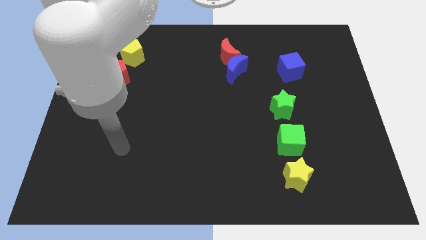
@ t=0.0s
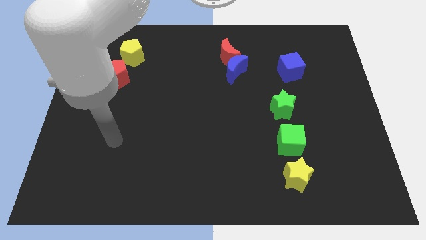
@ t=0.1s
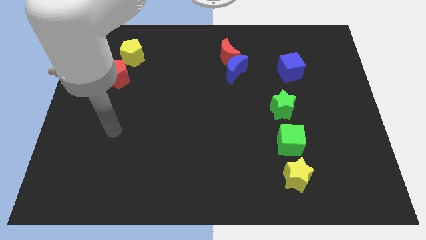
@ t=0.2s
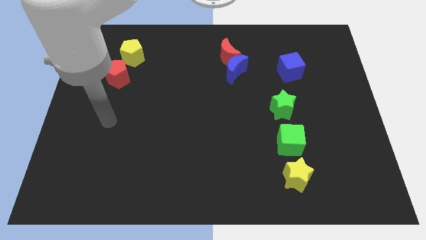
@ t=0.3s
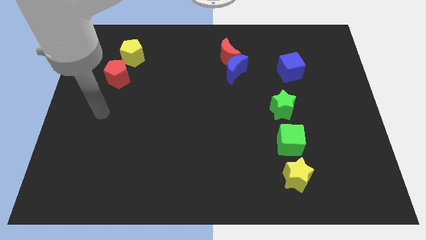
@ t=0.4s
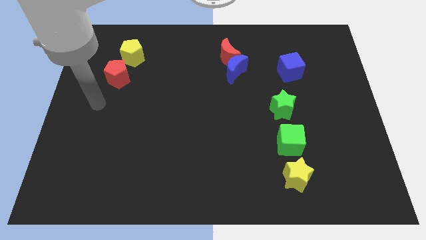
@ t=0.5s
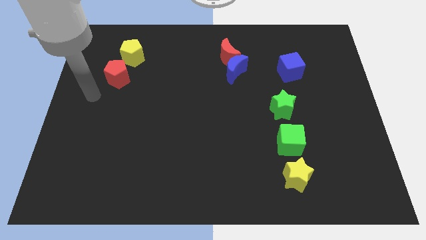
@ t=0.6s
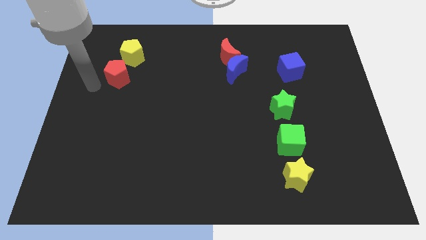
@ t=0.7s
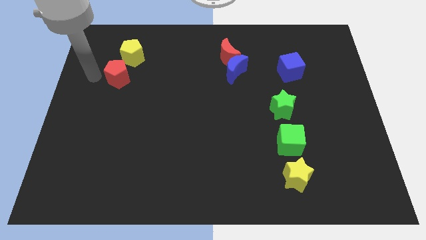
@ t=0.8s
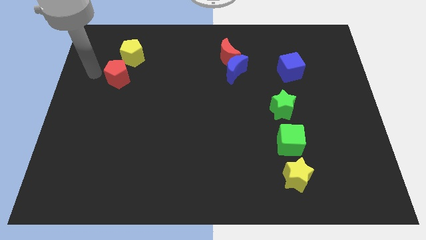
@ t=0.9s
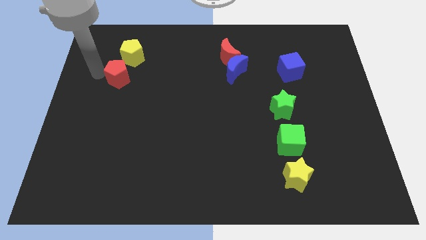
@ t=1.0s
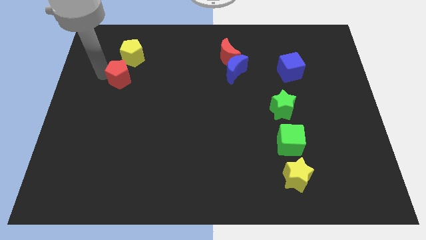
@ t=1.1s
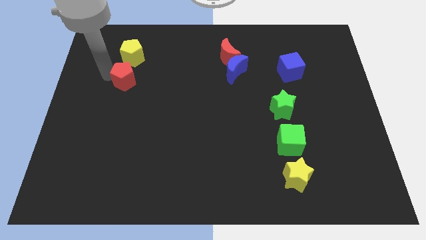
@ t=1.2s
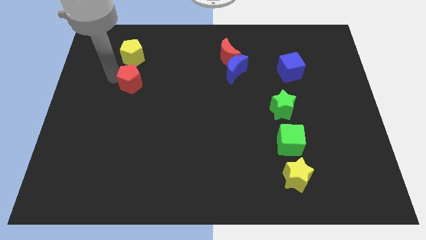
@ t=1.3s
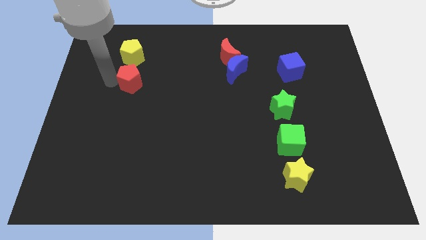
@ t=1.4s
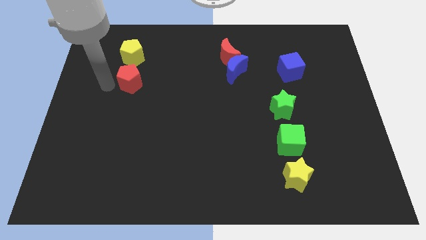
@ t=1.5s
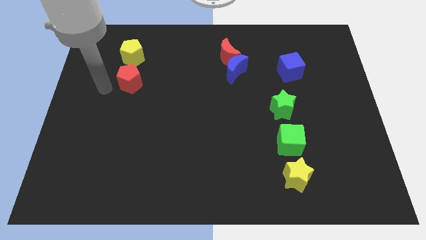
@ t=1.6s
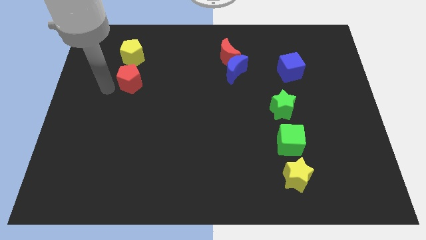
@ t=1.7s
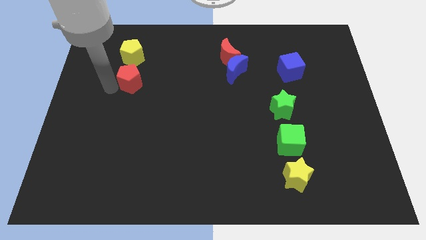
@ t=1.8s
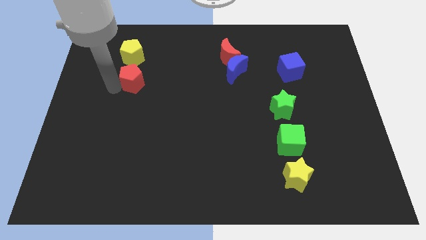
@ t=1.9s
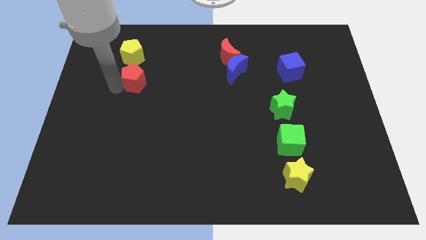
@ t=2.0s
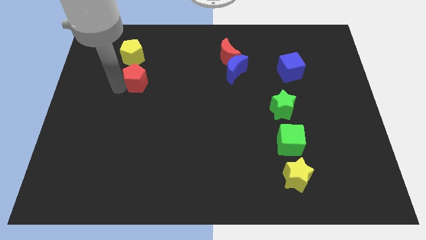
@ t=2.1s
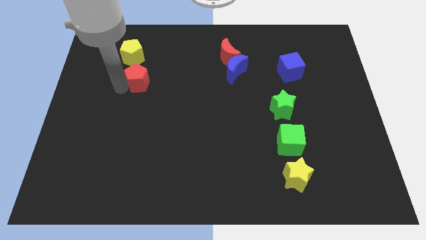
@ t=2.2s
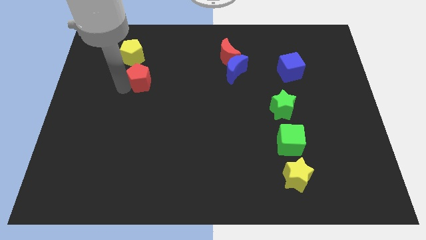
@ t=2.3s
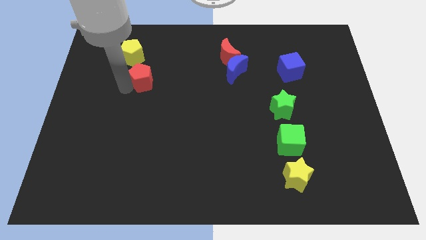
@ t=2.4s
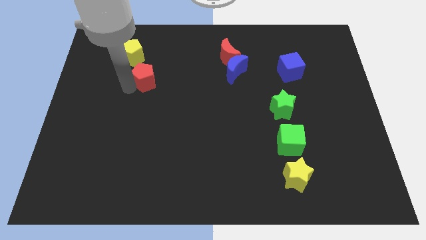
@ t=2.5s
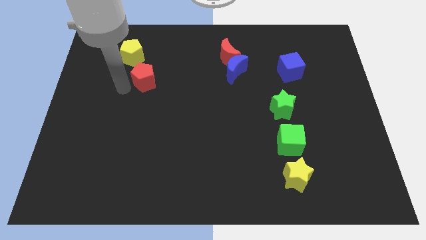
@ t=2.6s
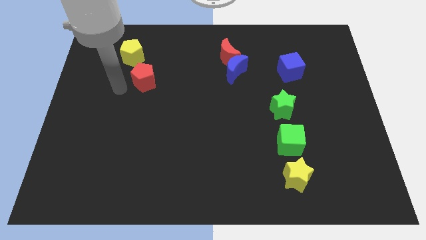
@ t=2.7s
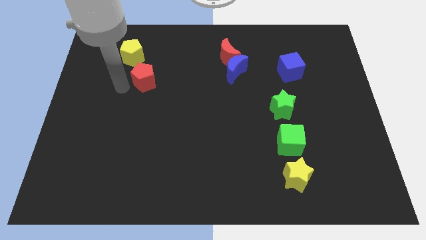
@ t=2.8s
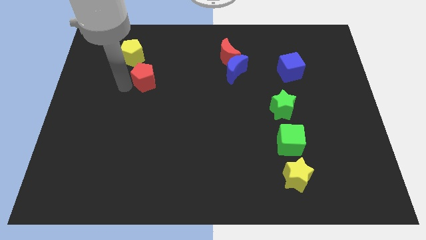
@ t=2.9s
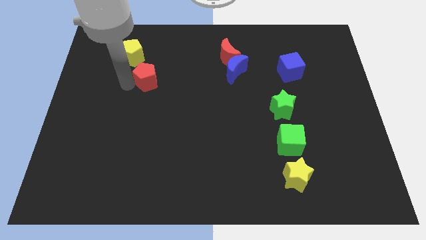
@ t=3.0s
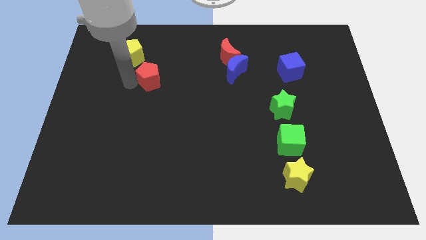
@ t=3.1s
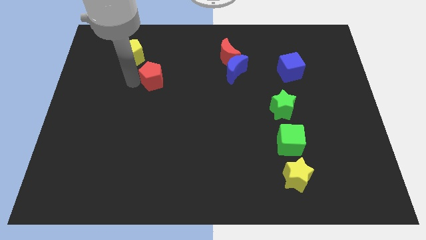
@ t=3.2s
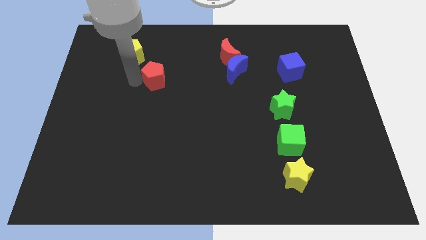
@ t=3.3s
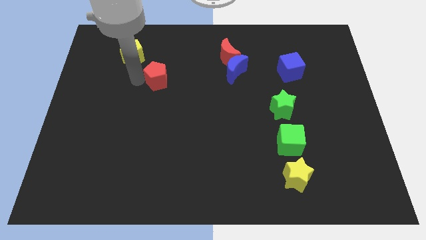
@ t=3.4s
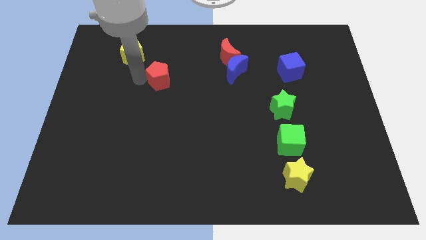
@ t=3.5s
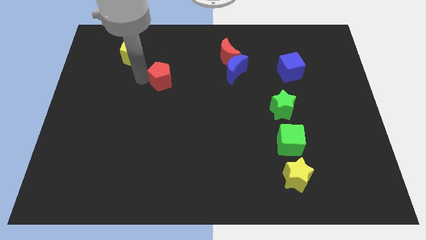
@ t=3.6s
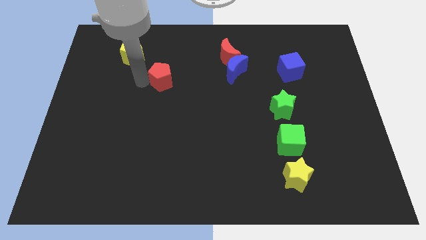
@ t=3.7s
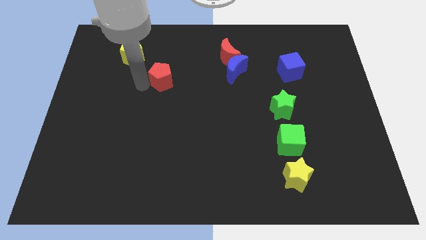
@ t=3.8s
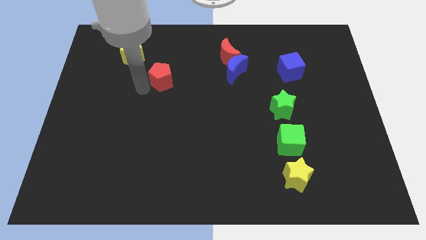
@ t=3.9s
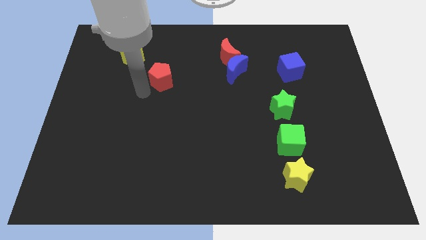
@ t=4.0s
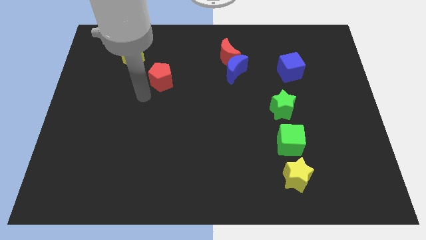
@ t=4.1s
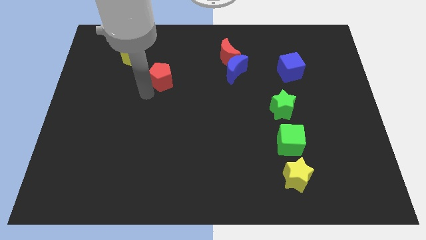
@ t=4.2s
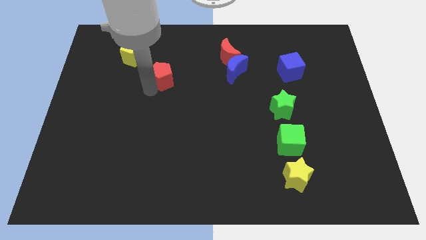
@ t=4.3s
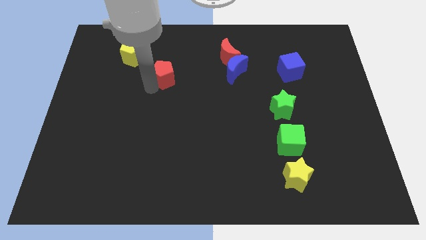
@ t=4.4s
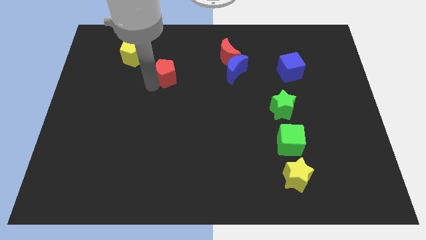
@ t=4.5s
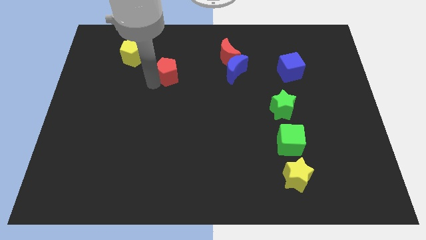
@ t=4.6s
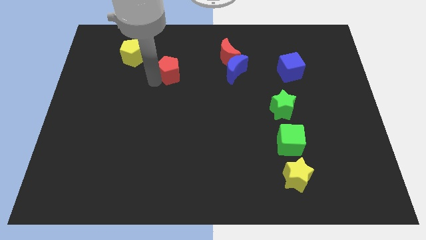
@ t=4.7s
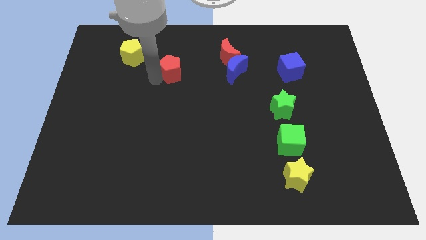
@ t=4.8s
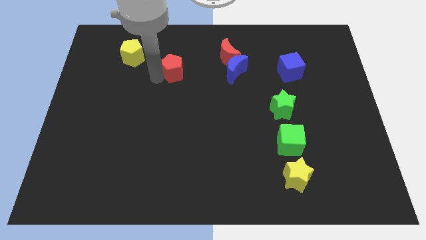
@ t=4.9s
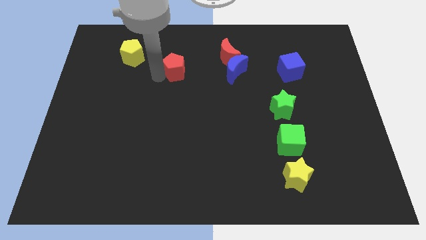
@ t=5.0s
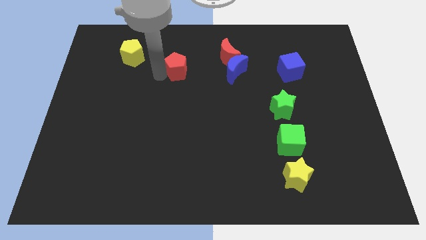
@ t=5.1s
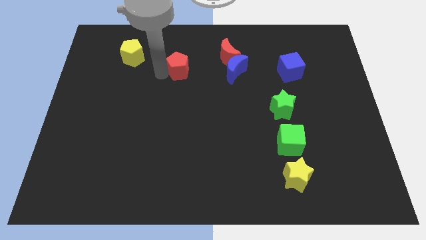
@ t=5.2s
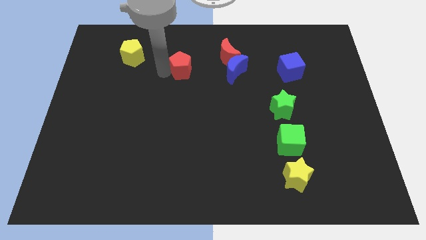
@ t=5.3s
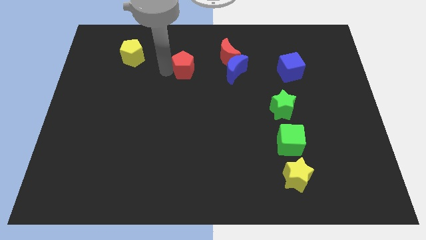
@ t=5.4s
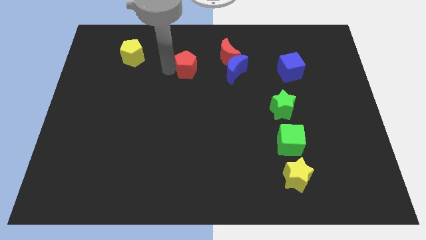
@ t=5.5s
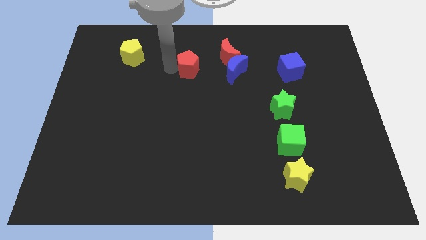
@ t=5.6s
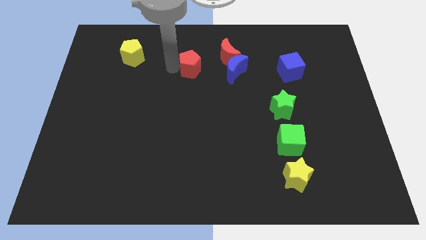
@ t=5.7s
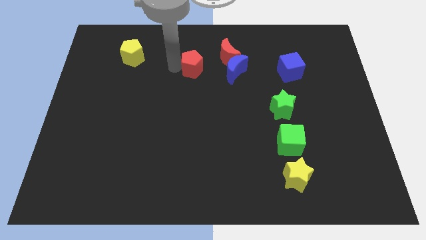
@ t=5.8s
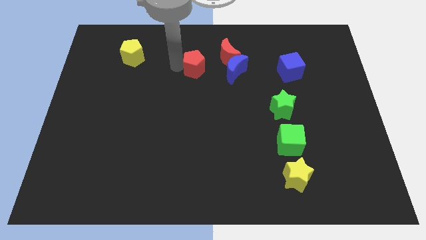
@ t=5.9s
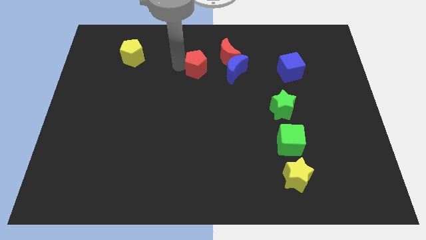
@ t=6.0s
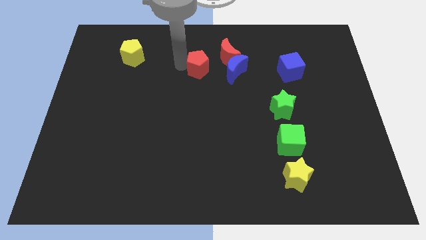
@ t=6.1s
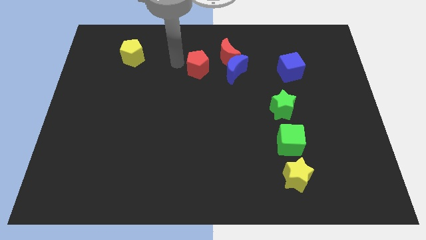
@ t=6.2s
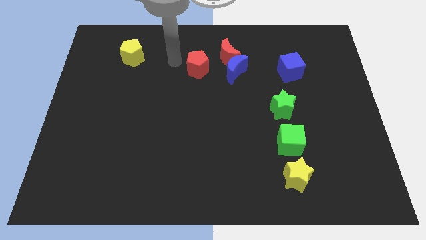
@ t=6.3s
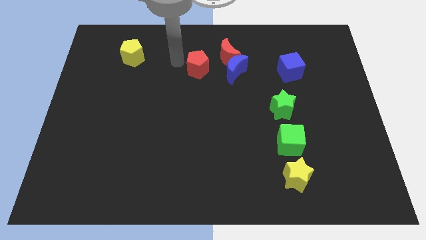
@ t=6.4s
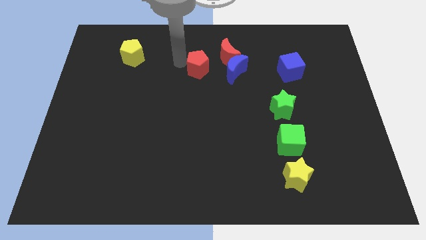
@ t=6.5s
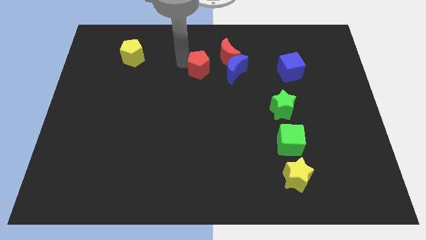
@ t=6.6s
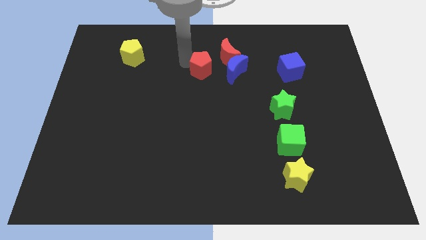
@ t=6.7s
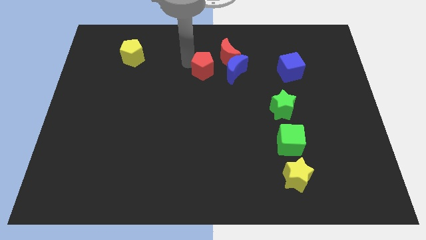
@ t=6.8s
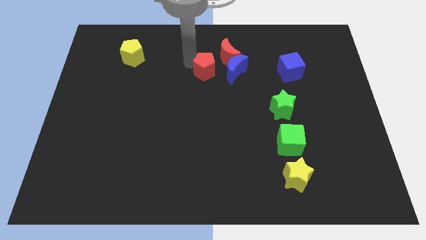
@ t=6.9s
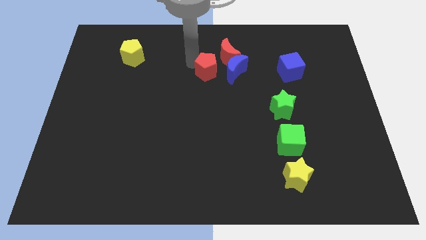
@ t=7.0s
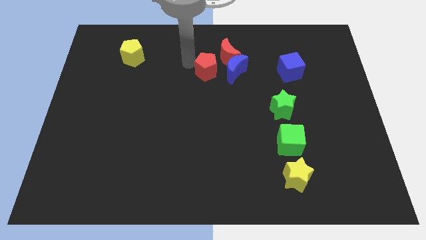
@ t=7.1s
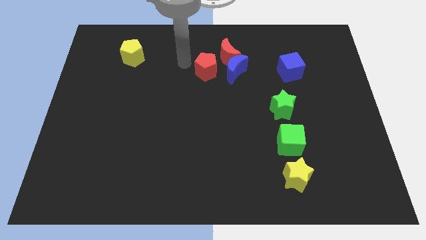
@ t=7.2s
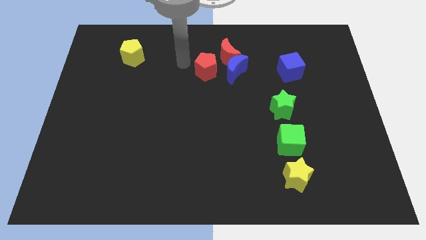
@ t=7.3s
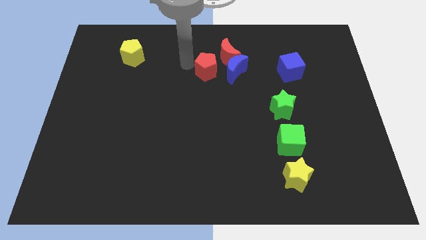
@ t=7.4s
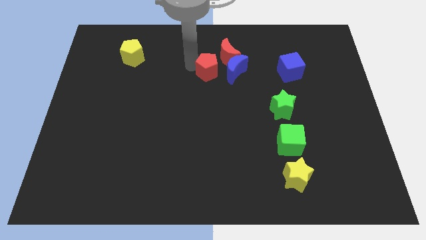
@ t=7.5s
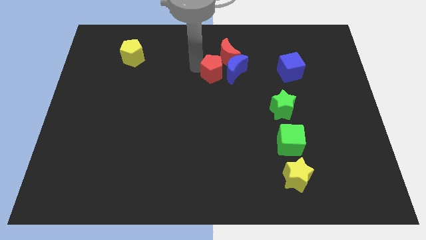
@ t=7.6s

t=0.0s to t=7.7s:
put the red pentagon to the blue moon
